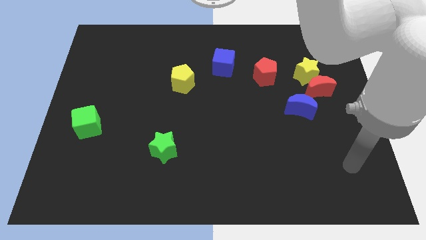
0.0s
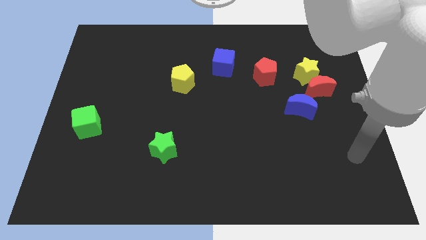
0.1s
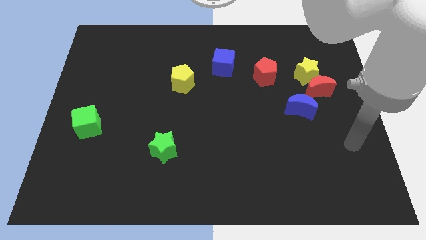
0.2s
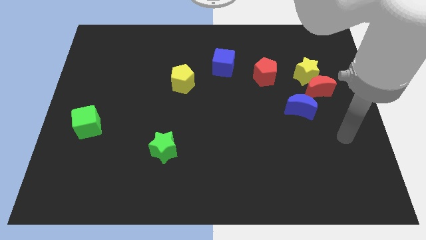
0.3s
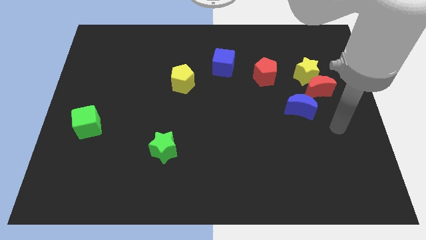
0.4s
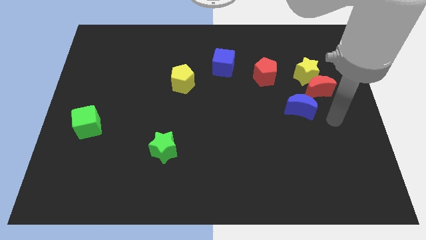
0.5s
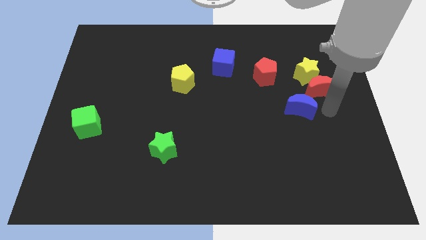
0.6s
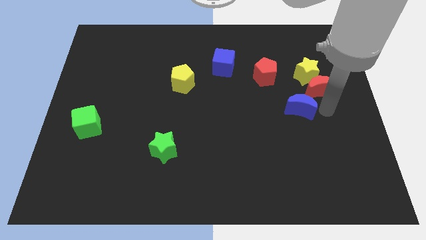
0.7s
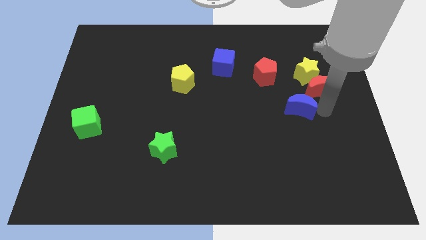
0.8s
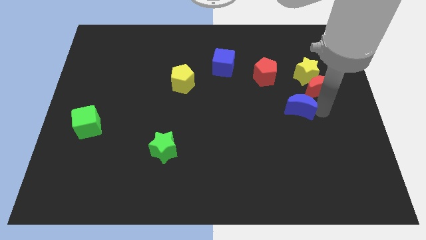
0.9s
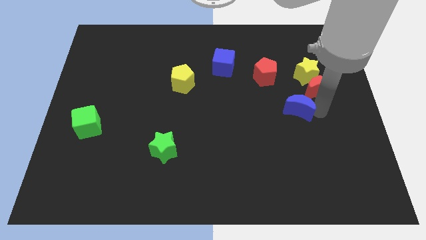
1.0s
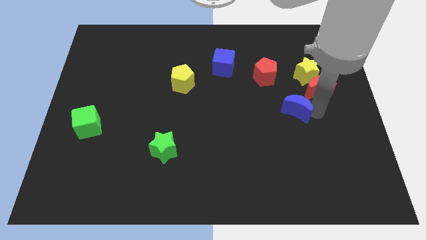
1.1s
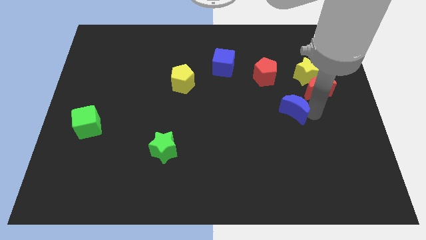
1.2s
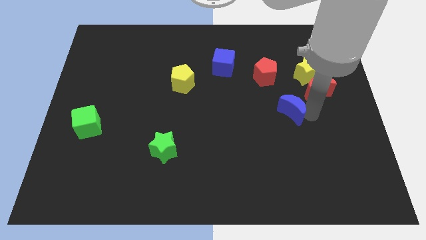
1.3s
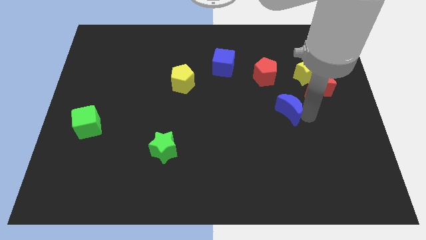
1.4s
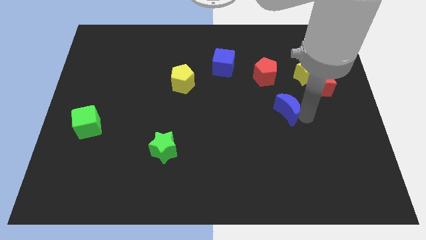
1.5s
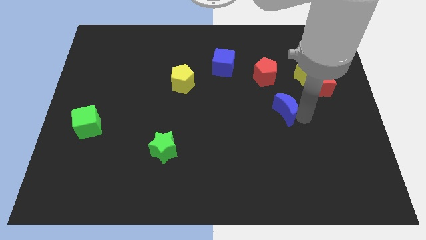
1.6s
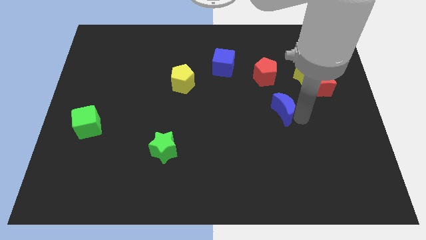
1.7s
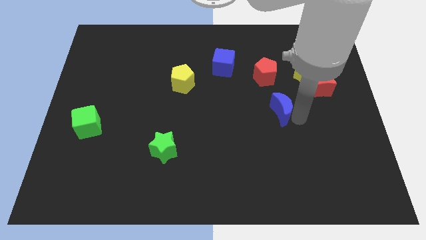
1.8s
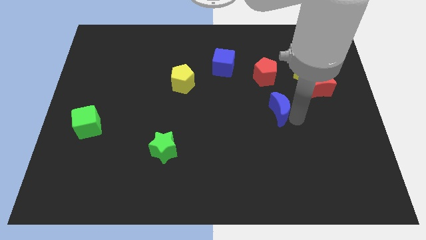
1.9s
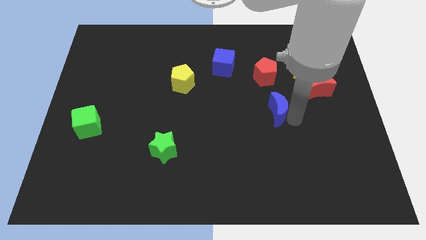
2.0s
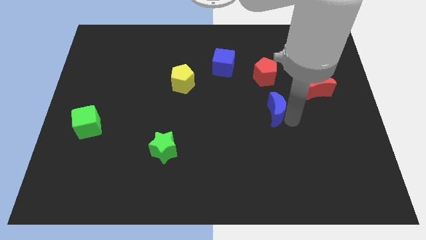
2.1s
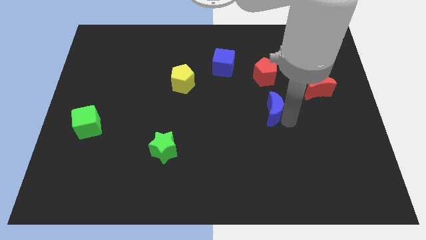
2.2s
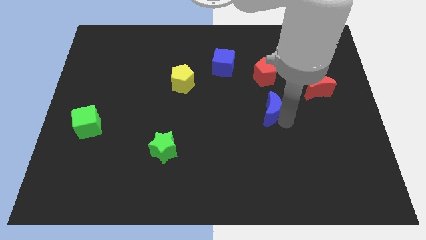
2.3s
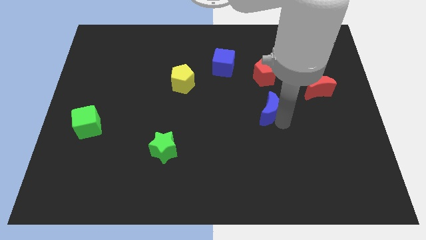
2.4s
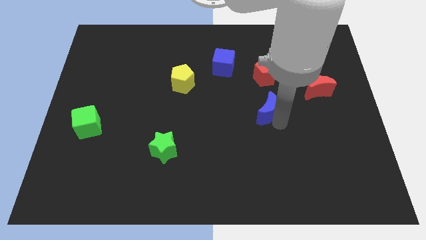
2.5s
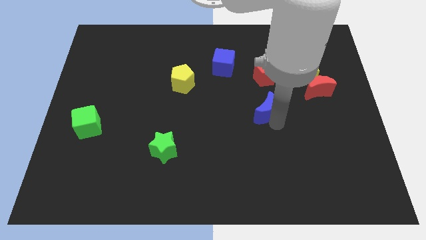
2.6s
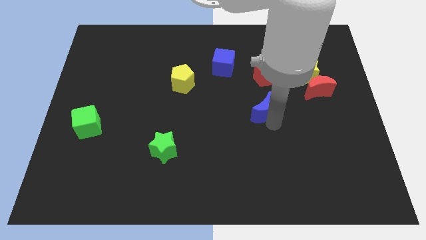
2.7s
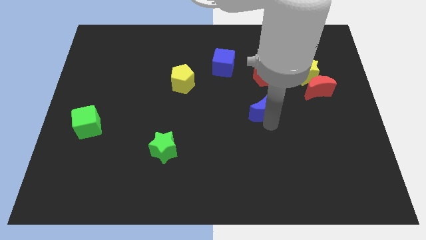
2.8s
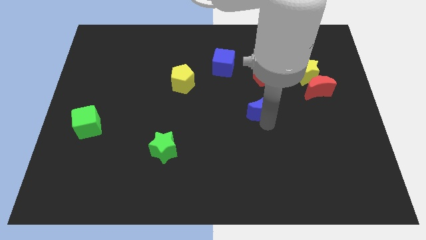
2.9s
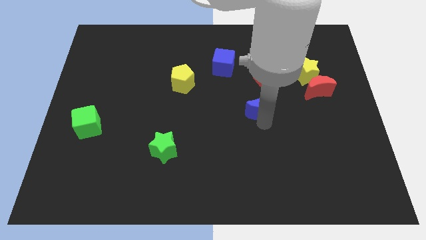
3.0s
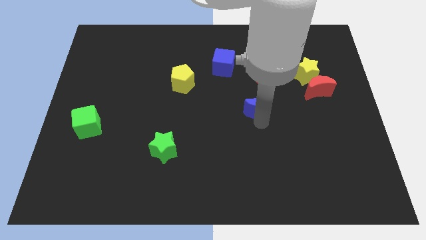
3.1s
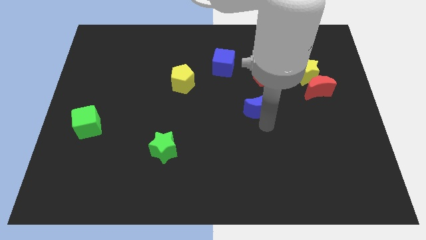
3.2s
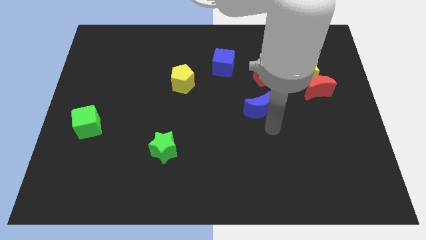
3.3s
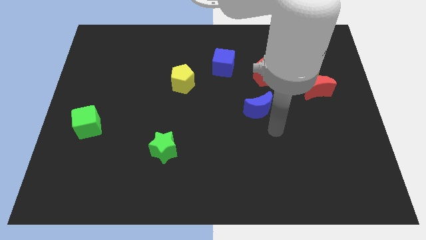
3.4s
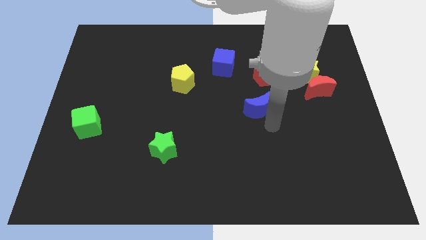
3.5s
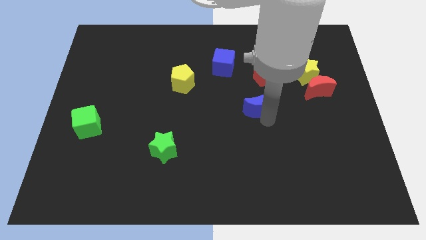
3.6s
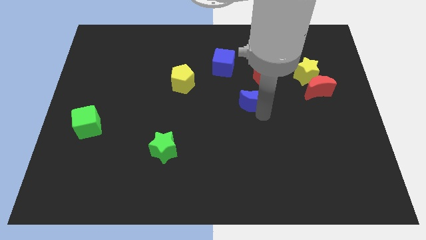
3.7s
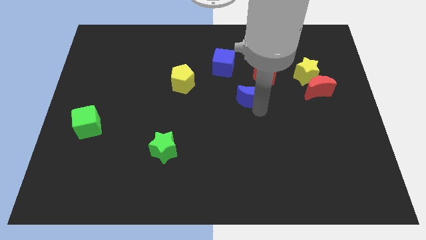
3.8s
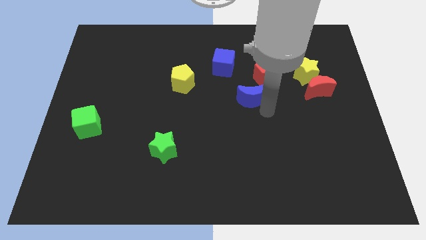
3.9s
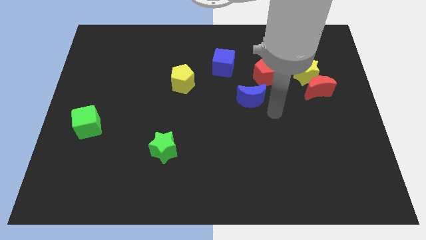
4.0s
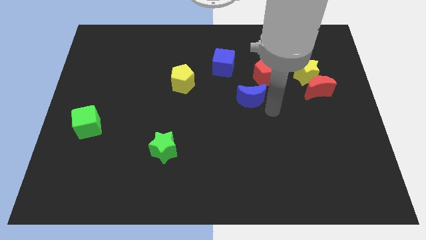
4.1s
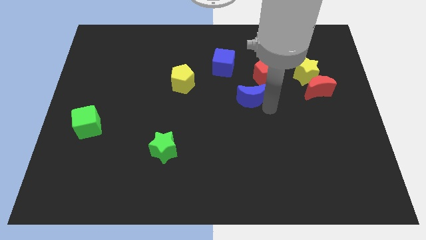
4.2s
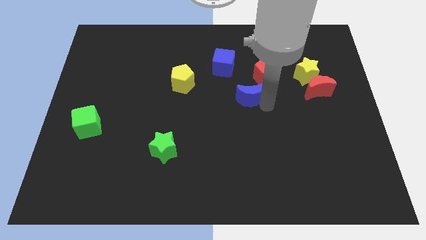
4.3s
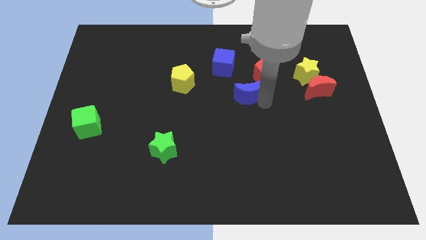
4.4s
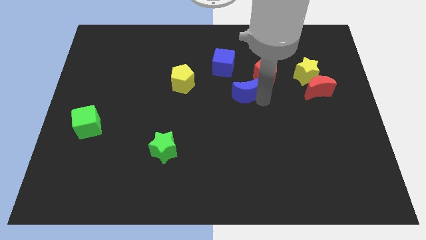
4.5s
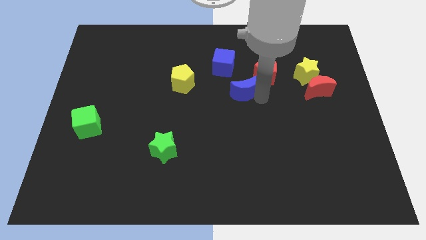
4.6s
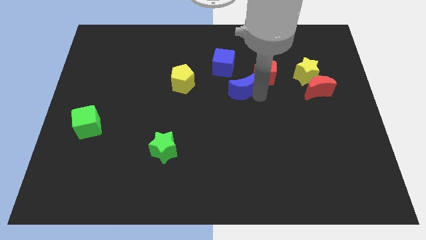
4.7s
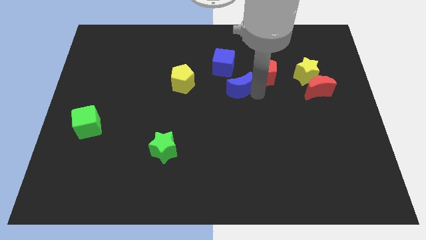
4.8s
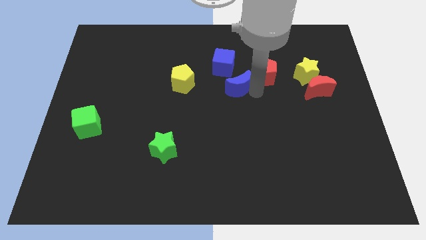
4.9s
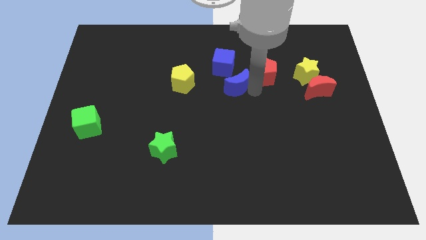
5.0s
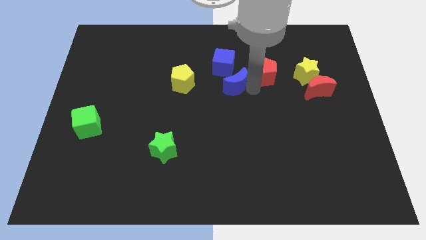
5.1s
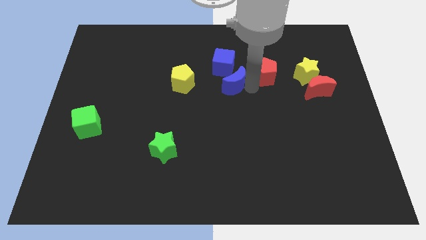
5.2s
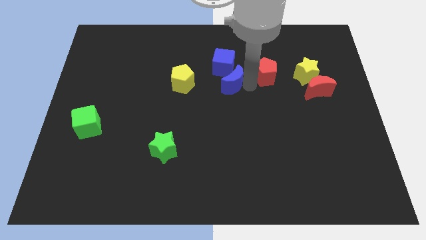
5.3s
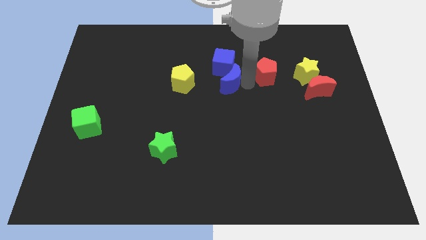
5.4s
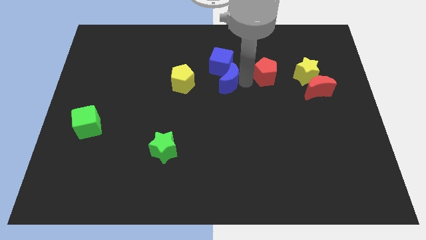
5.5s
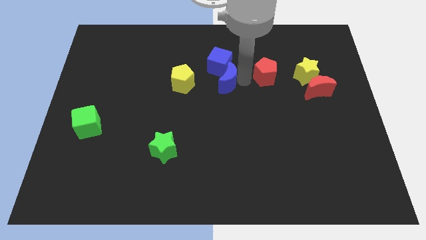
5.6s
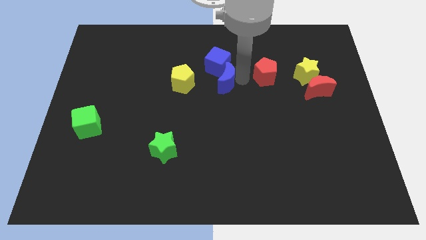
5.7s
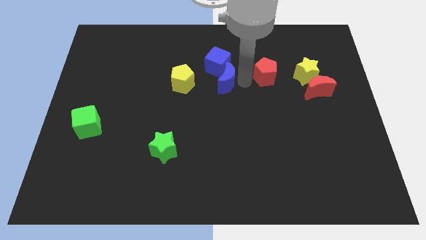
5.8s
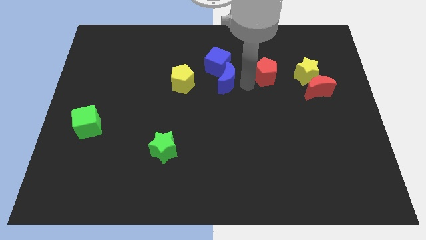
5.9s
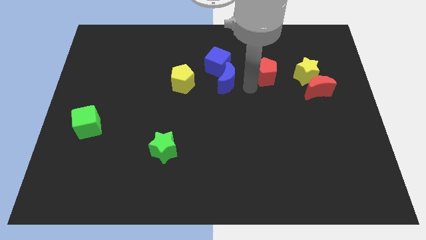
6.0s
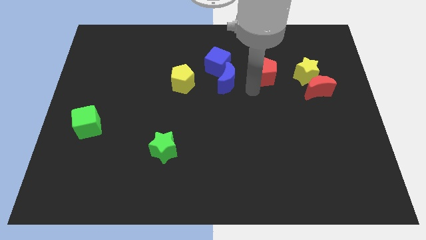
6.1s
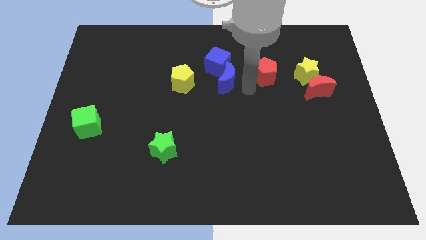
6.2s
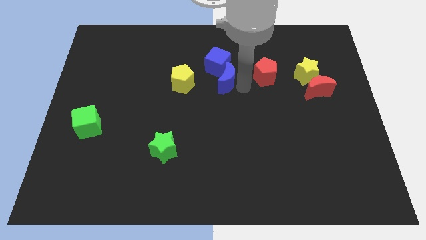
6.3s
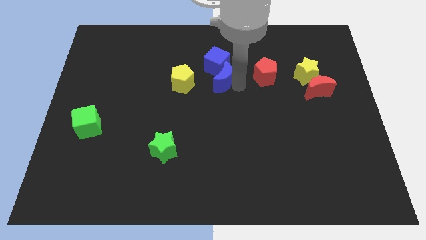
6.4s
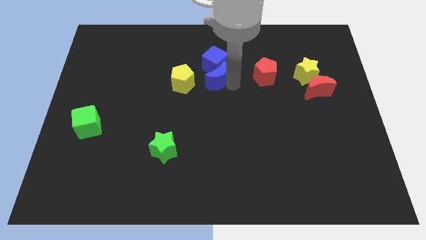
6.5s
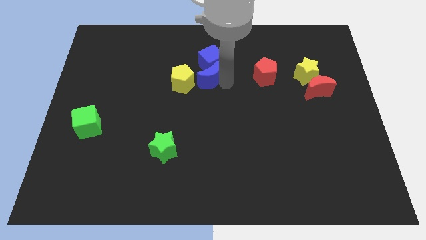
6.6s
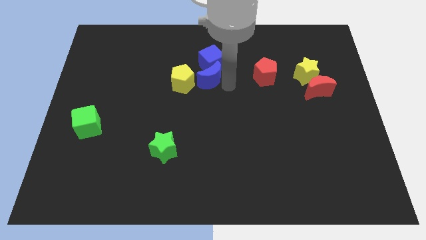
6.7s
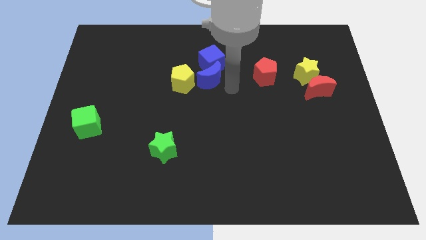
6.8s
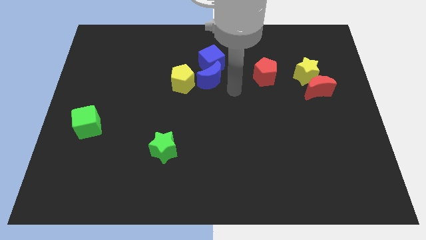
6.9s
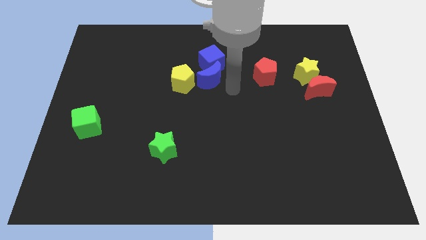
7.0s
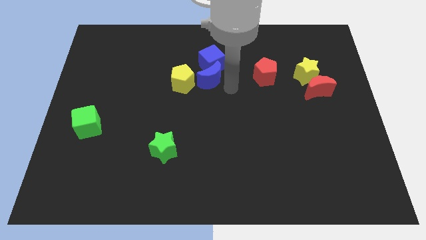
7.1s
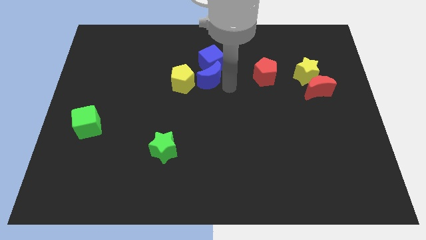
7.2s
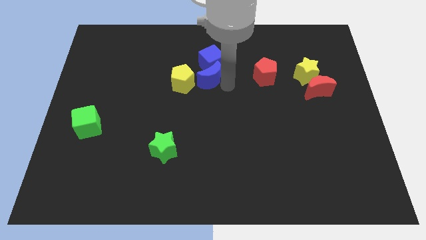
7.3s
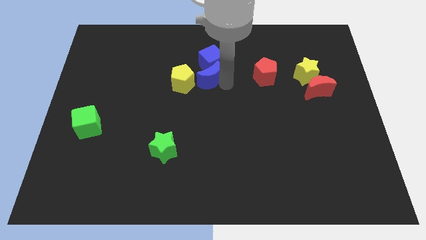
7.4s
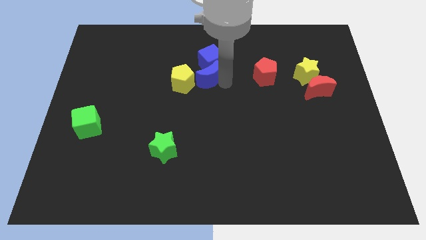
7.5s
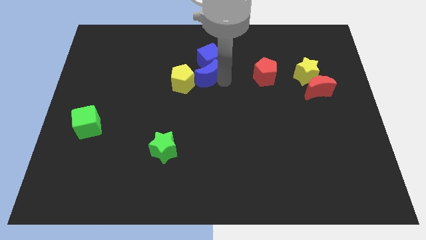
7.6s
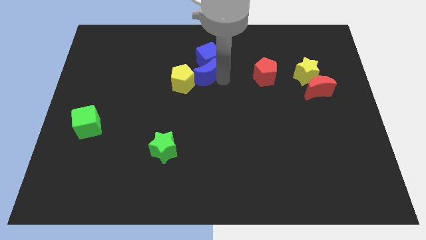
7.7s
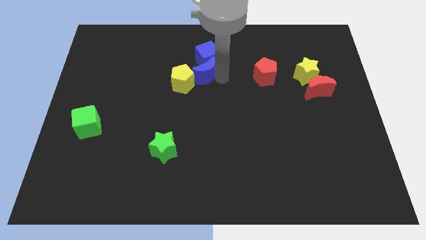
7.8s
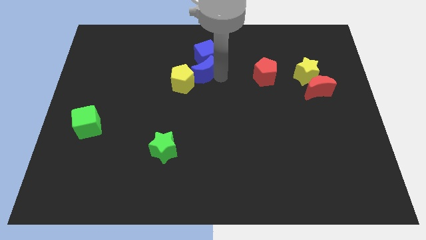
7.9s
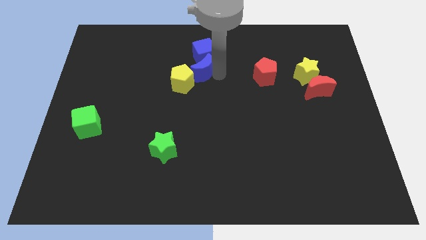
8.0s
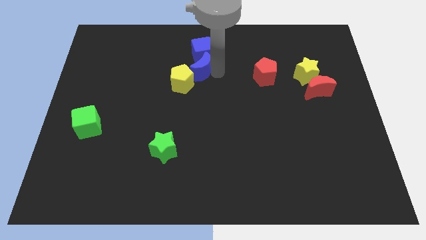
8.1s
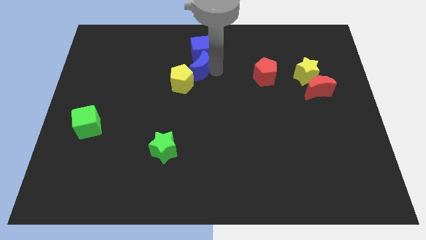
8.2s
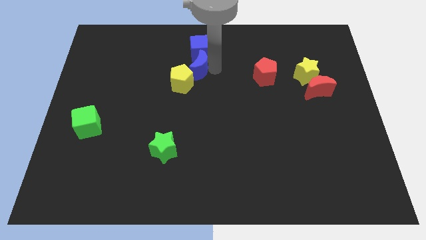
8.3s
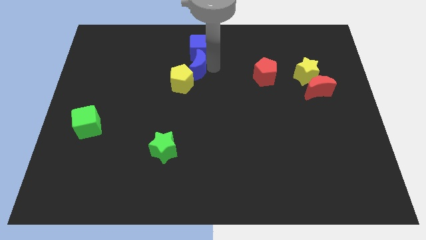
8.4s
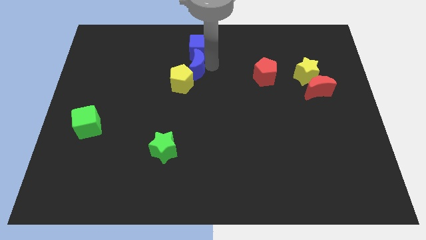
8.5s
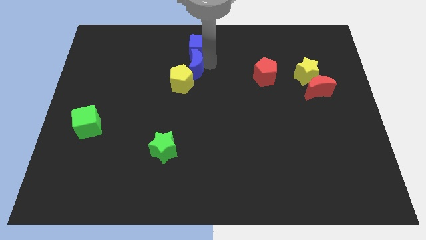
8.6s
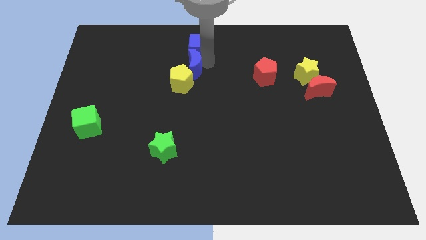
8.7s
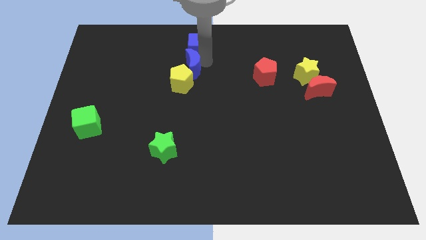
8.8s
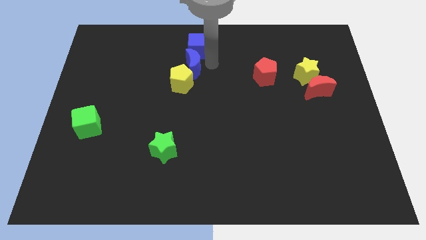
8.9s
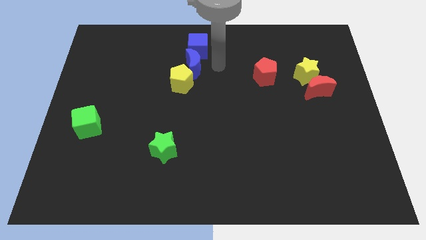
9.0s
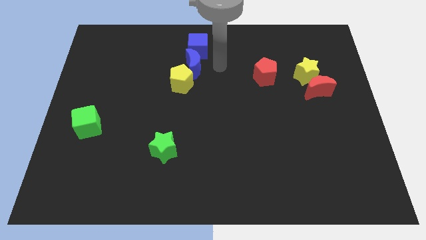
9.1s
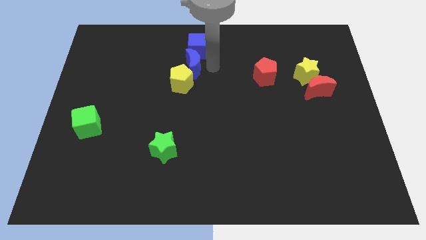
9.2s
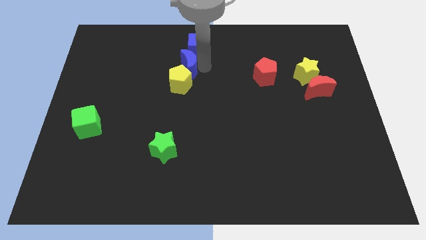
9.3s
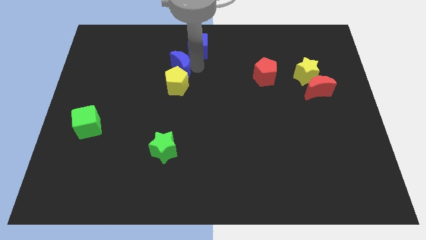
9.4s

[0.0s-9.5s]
put the blue moon to the top left of the yellow pentagon
